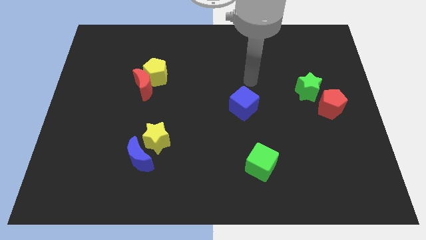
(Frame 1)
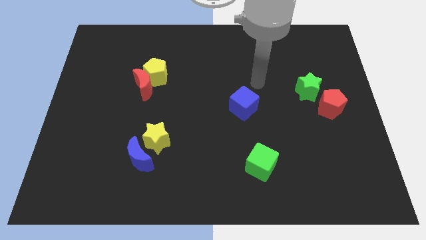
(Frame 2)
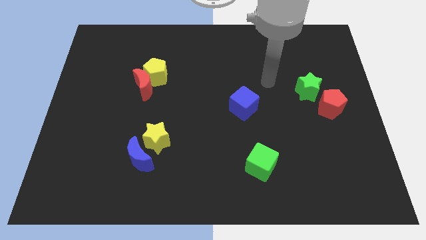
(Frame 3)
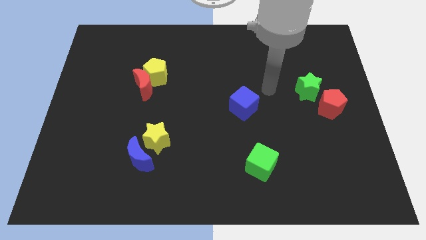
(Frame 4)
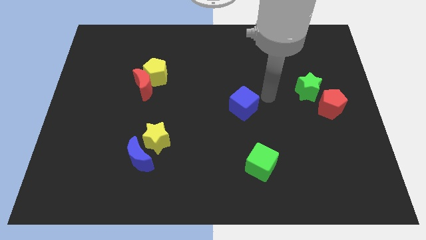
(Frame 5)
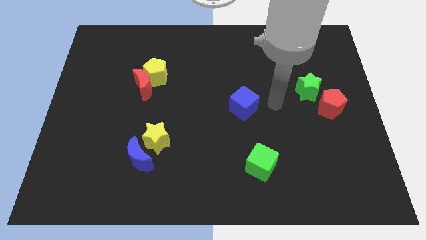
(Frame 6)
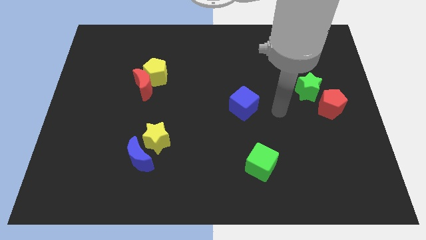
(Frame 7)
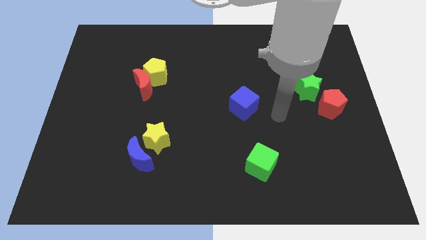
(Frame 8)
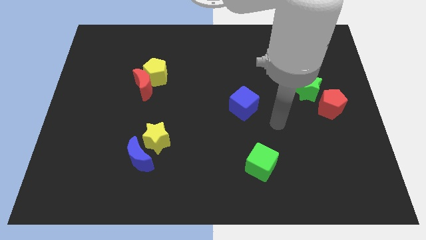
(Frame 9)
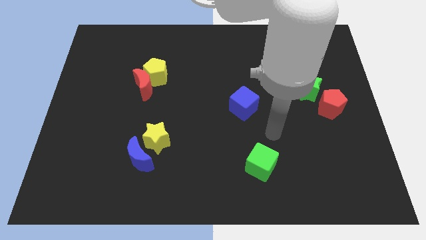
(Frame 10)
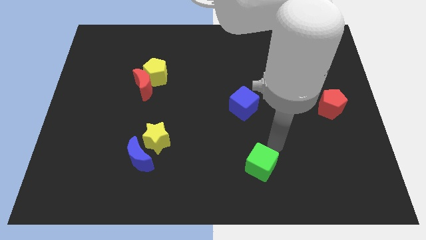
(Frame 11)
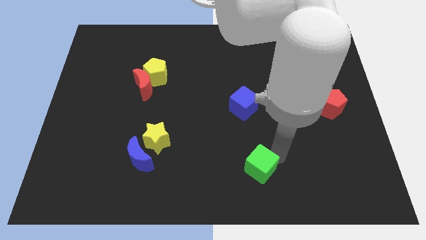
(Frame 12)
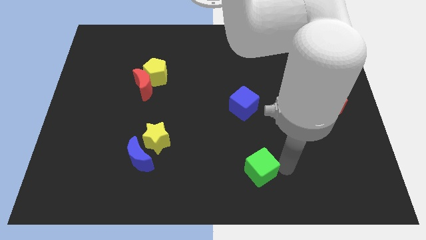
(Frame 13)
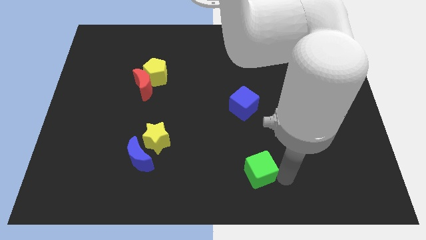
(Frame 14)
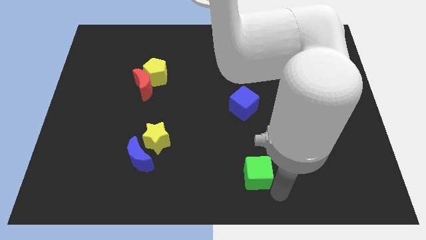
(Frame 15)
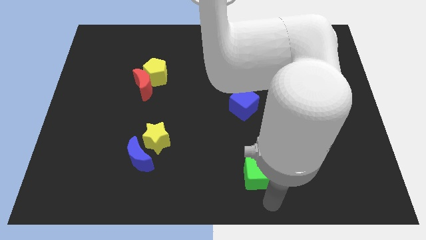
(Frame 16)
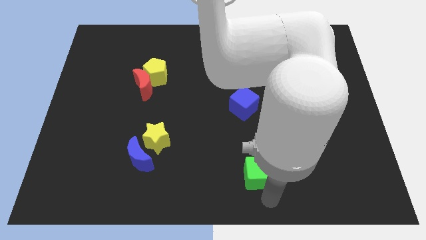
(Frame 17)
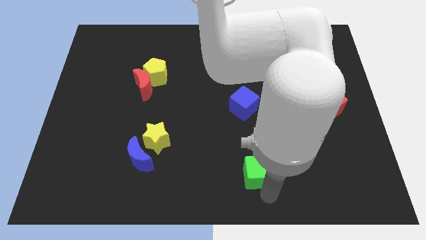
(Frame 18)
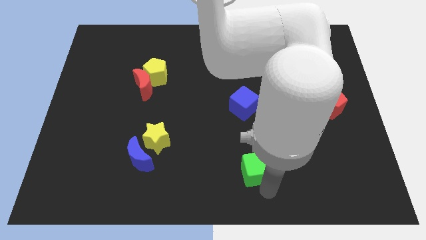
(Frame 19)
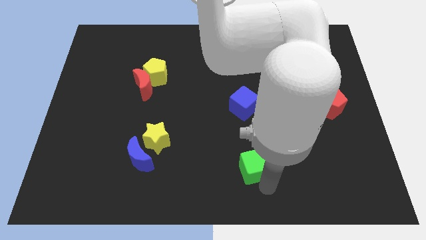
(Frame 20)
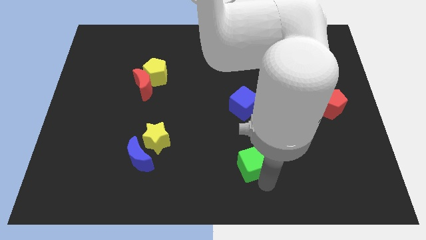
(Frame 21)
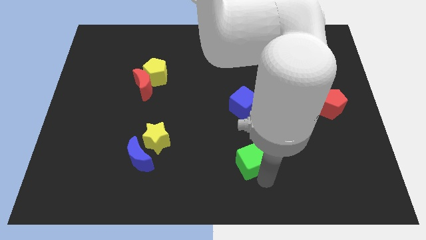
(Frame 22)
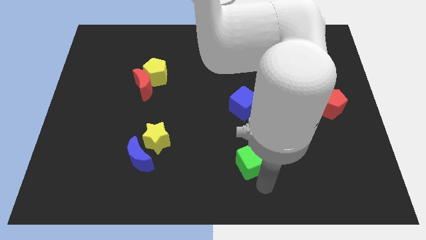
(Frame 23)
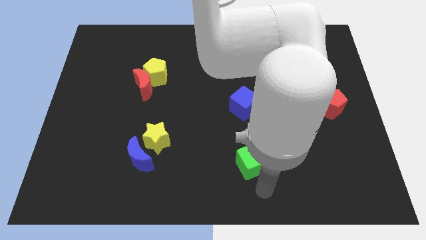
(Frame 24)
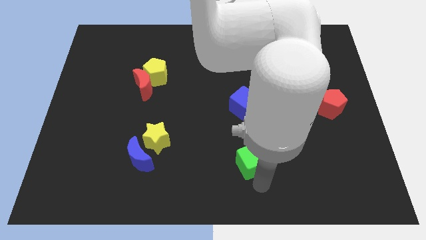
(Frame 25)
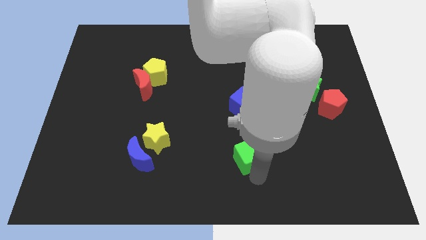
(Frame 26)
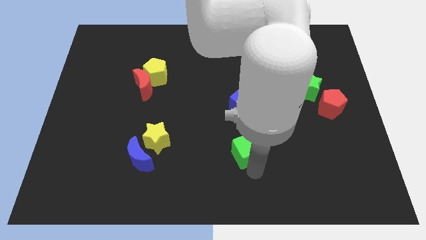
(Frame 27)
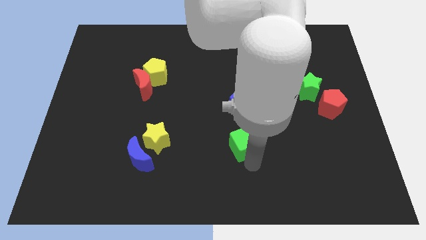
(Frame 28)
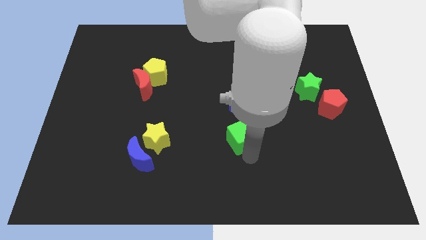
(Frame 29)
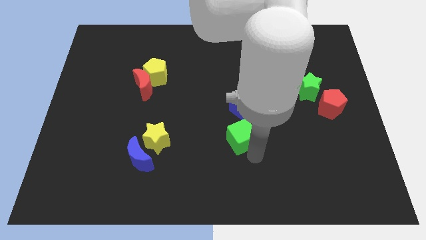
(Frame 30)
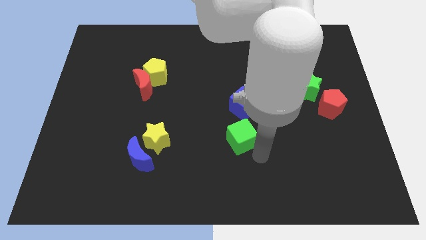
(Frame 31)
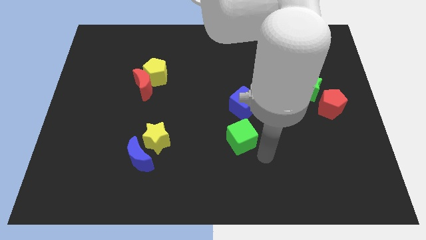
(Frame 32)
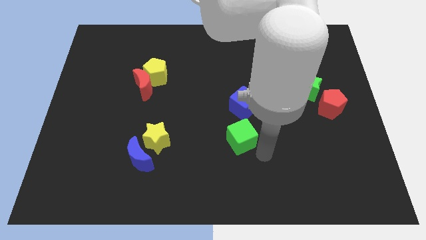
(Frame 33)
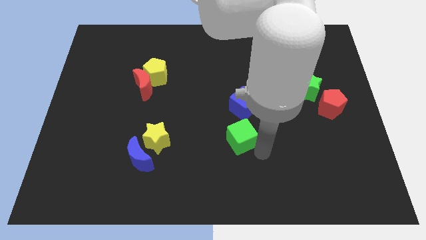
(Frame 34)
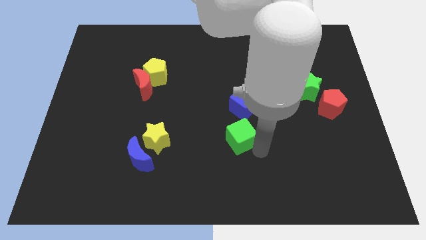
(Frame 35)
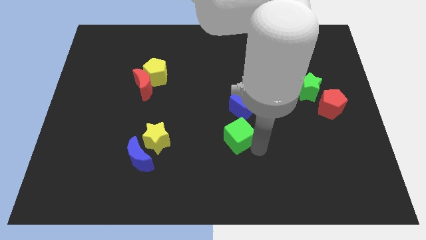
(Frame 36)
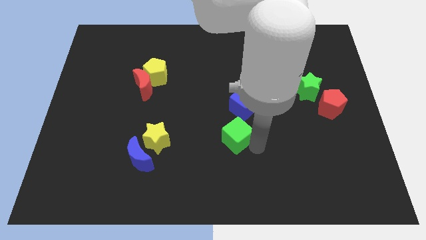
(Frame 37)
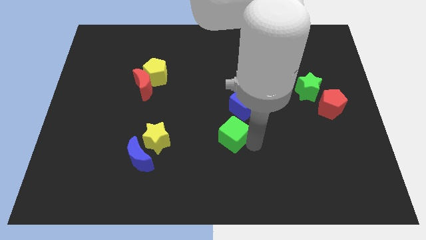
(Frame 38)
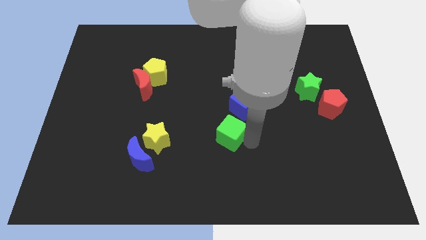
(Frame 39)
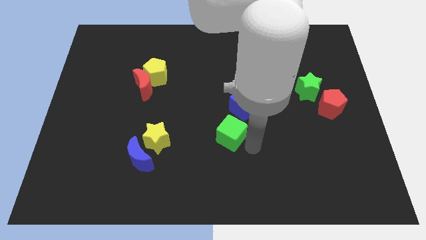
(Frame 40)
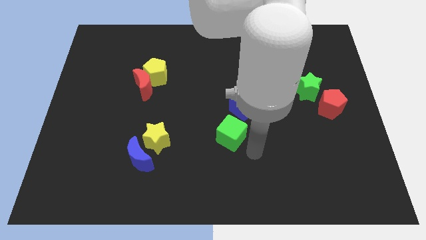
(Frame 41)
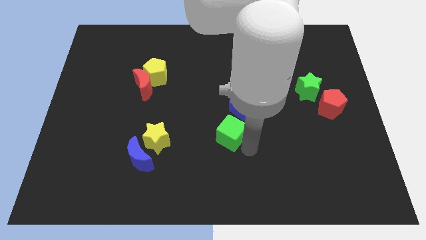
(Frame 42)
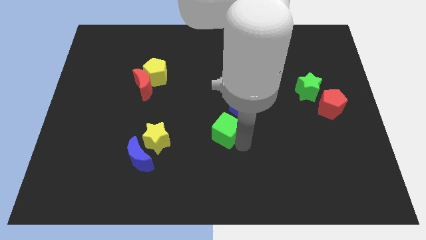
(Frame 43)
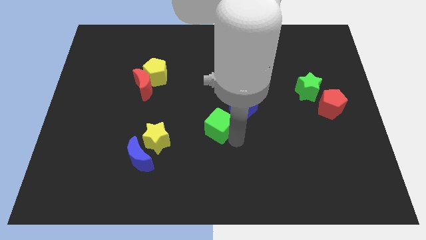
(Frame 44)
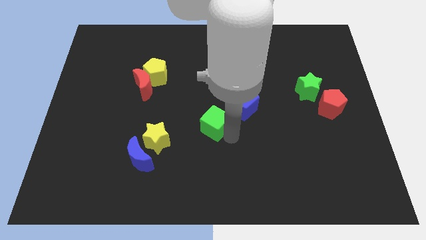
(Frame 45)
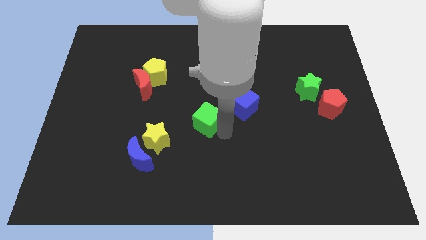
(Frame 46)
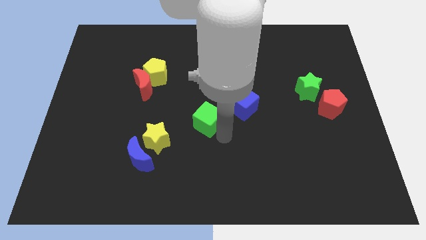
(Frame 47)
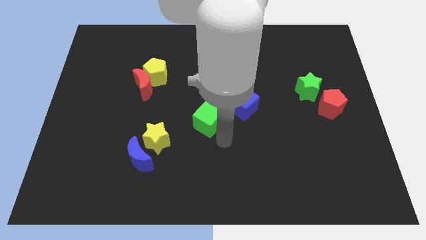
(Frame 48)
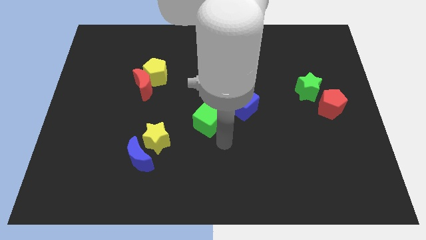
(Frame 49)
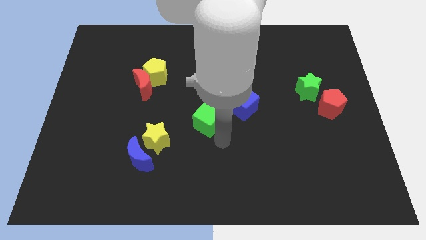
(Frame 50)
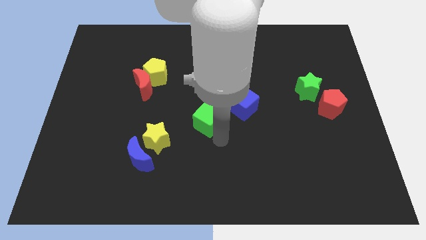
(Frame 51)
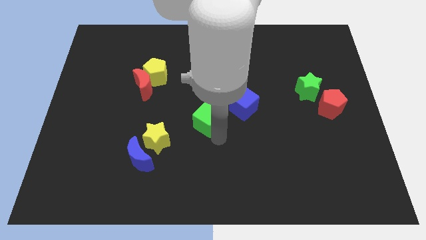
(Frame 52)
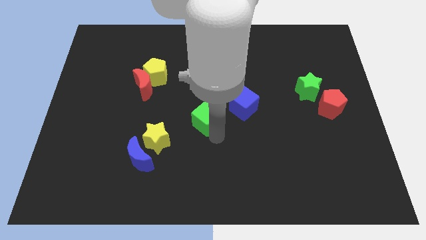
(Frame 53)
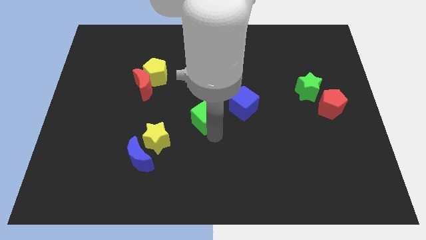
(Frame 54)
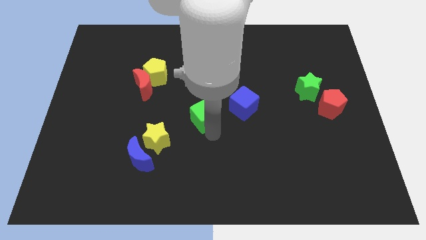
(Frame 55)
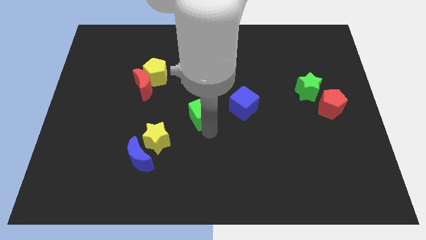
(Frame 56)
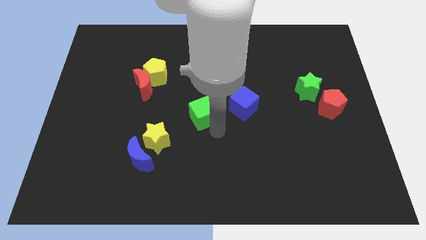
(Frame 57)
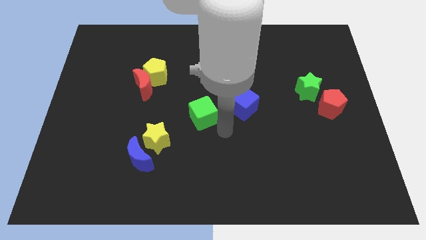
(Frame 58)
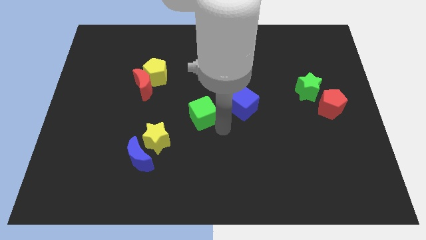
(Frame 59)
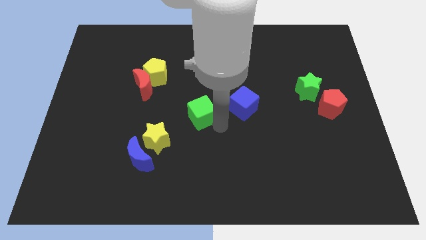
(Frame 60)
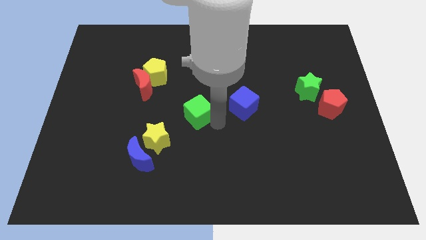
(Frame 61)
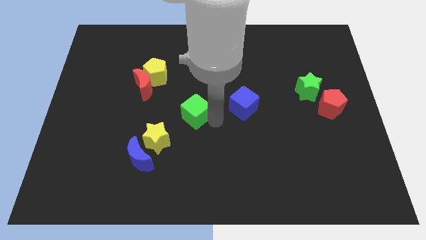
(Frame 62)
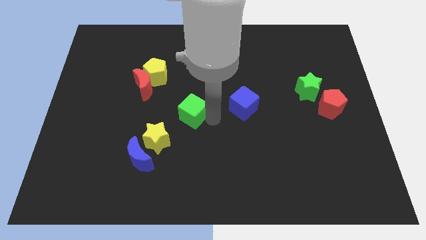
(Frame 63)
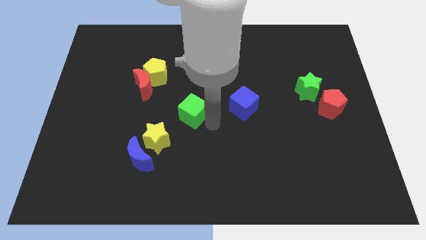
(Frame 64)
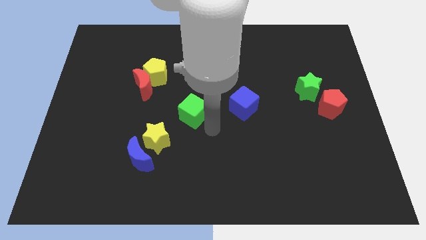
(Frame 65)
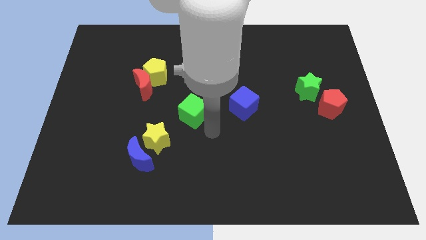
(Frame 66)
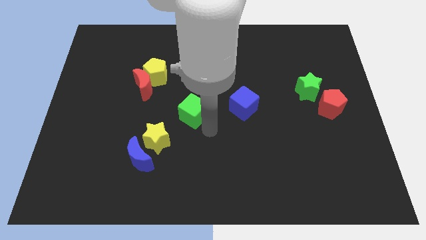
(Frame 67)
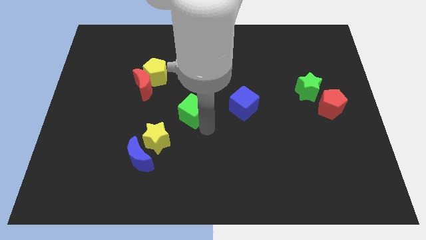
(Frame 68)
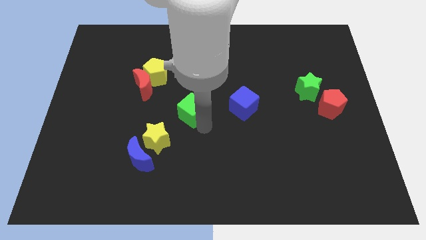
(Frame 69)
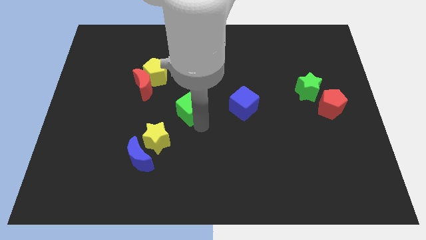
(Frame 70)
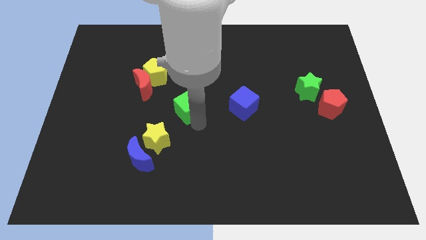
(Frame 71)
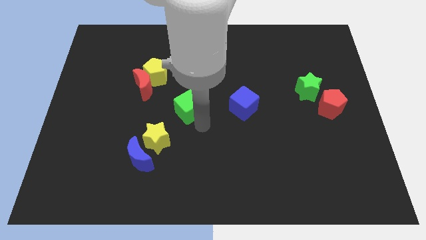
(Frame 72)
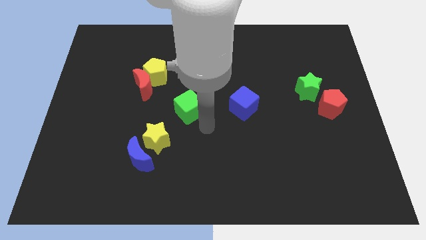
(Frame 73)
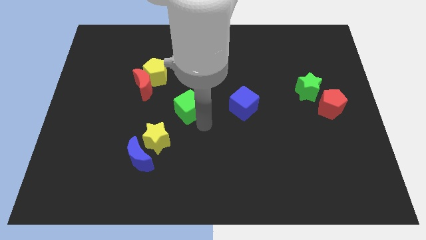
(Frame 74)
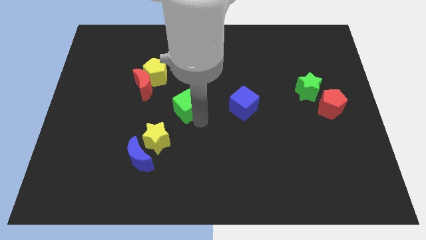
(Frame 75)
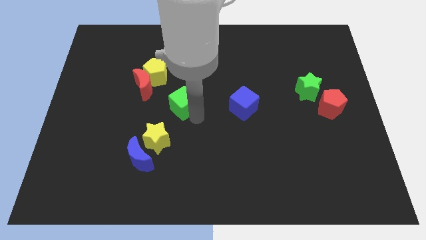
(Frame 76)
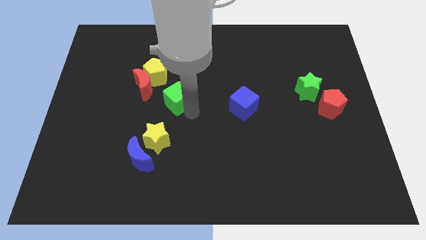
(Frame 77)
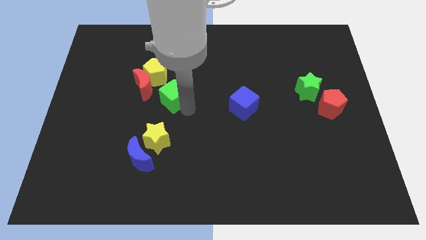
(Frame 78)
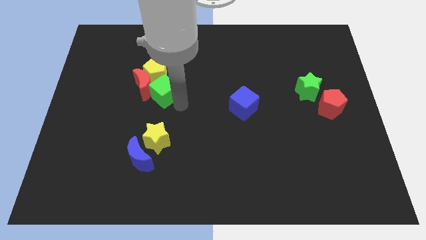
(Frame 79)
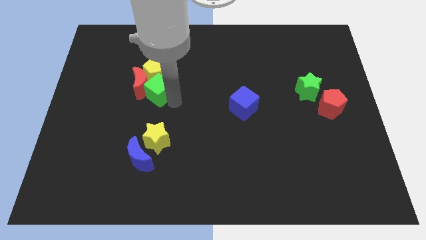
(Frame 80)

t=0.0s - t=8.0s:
slide the green cube next to the yellow pentagon
